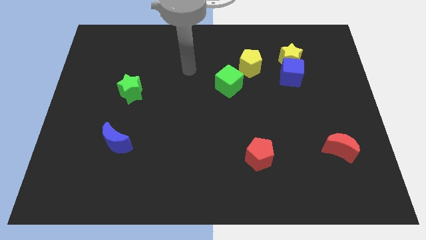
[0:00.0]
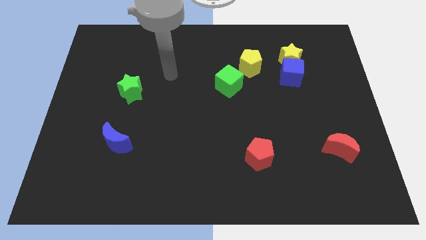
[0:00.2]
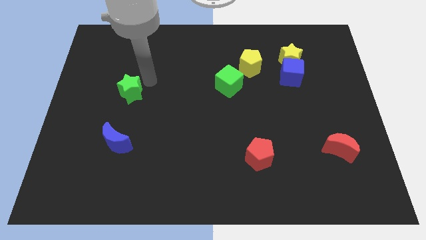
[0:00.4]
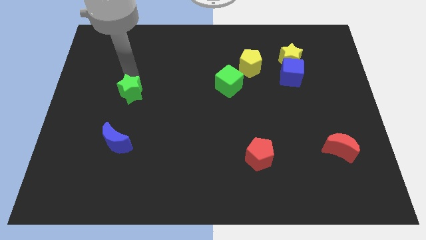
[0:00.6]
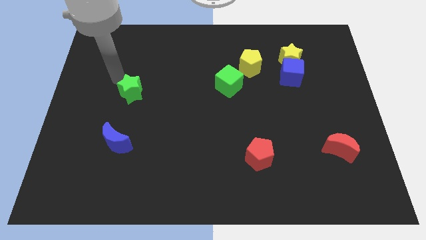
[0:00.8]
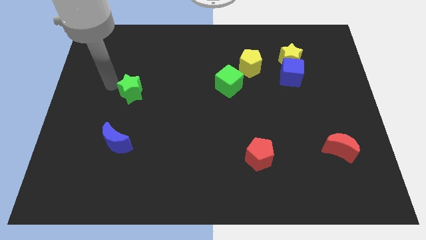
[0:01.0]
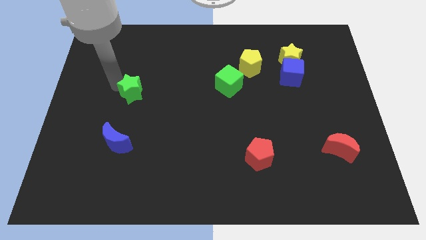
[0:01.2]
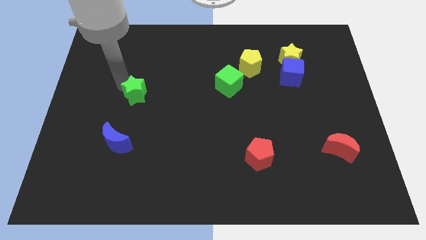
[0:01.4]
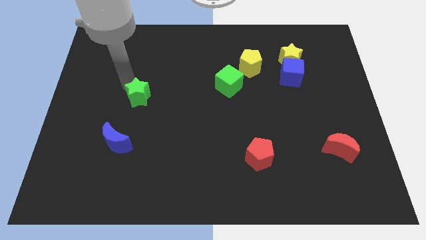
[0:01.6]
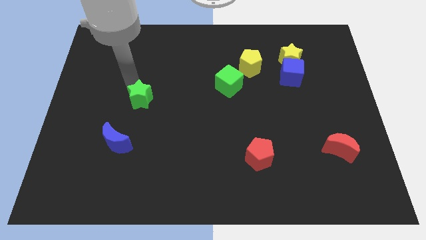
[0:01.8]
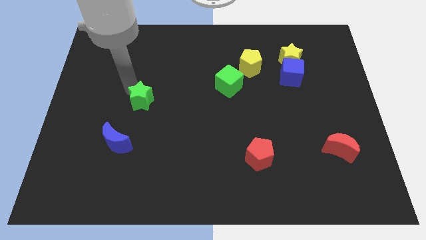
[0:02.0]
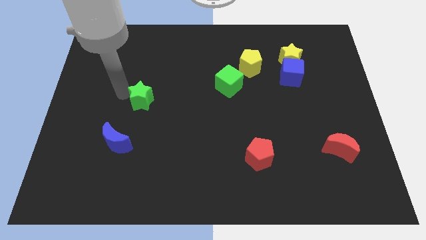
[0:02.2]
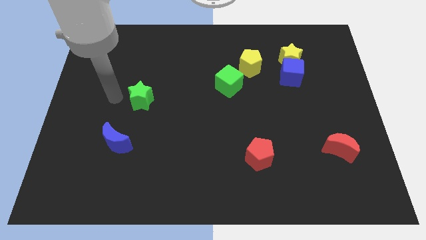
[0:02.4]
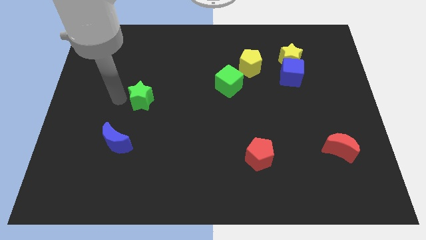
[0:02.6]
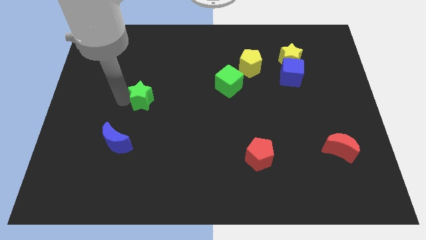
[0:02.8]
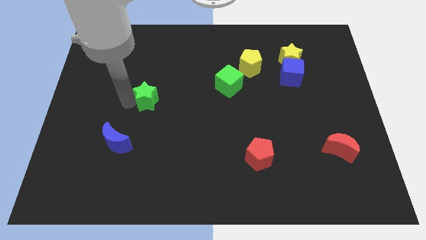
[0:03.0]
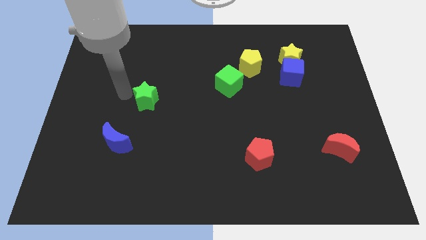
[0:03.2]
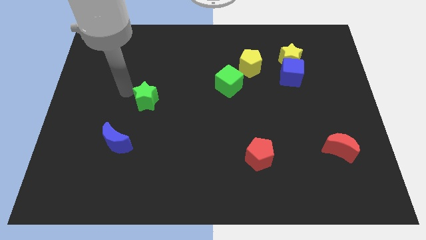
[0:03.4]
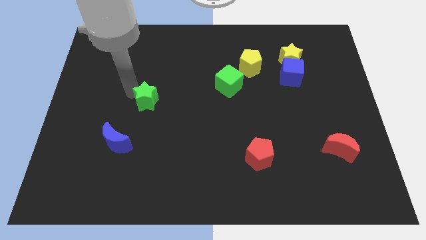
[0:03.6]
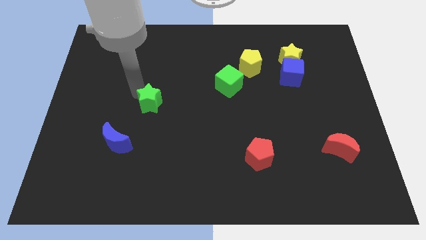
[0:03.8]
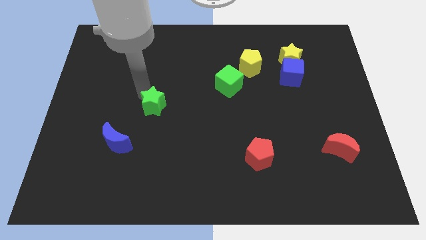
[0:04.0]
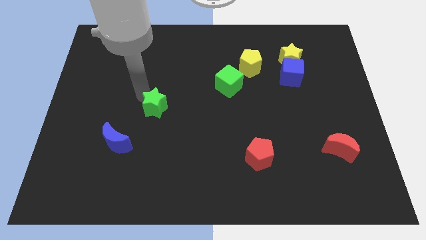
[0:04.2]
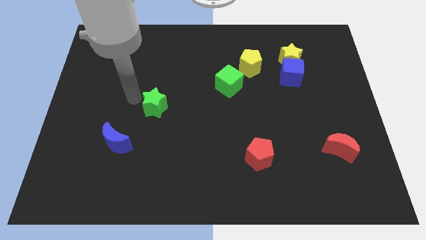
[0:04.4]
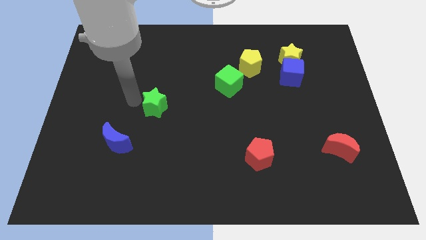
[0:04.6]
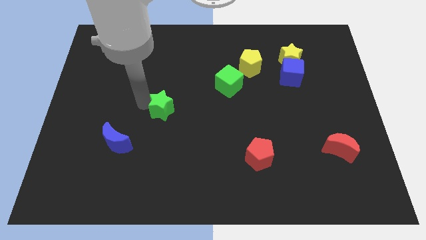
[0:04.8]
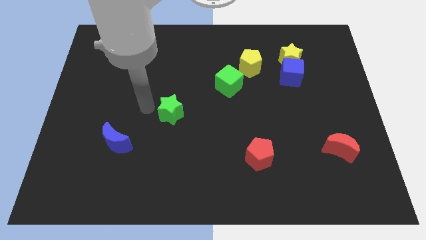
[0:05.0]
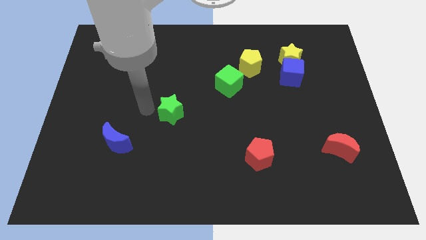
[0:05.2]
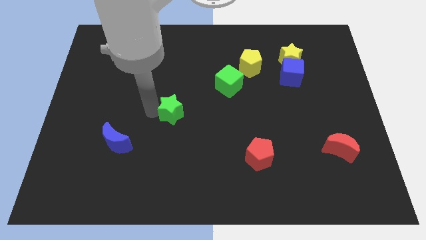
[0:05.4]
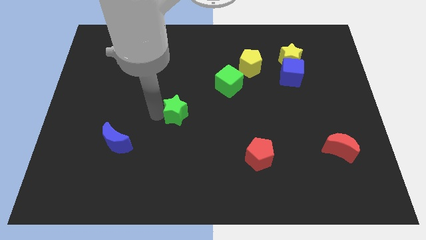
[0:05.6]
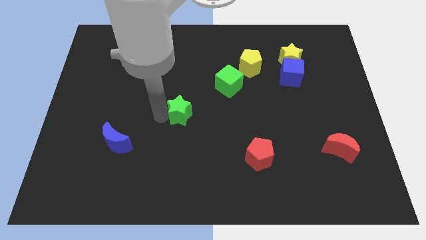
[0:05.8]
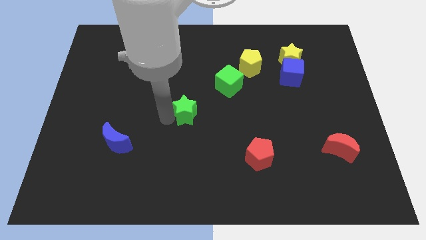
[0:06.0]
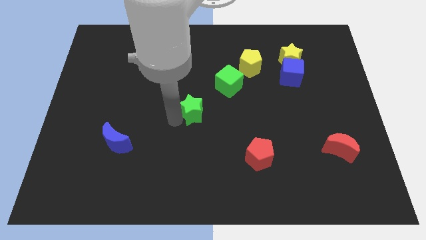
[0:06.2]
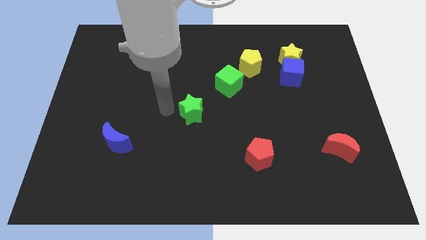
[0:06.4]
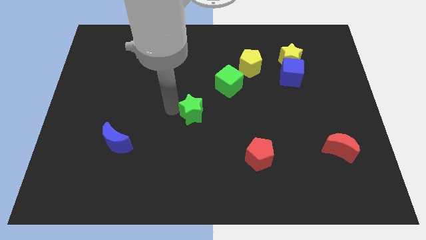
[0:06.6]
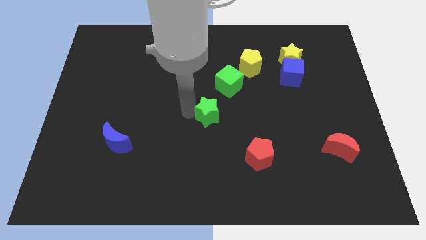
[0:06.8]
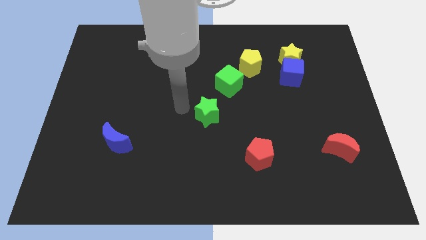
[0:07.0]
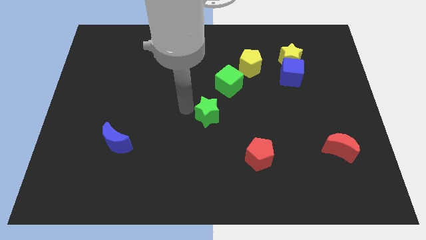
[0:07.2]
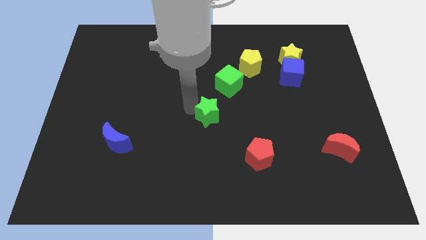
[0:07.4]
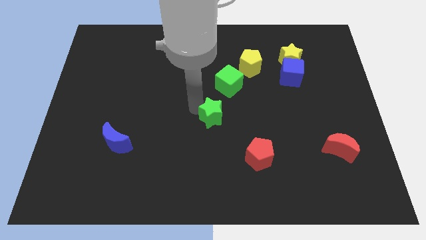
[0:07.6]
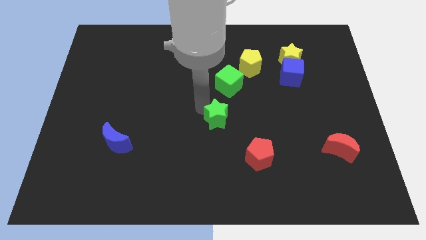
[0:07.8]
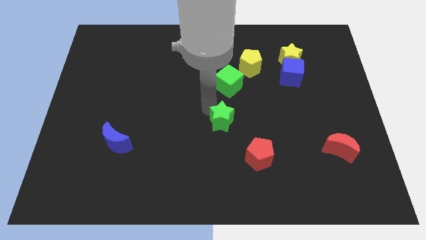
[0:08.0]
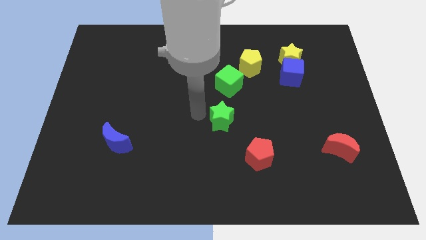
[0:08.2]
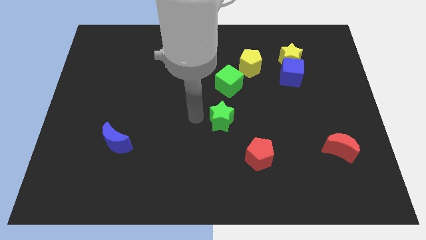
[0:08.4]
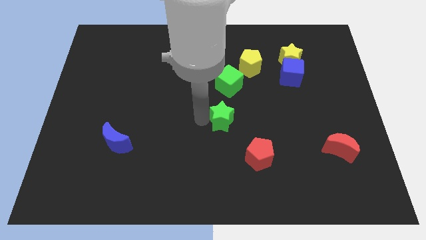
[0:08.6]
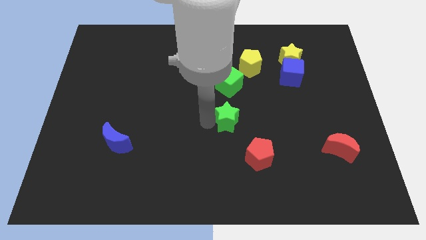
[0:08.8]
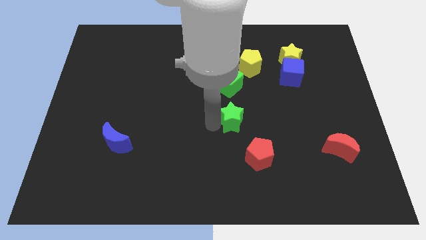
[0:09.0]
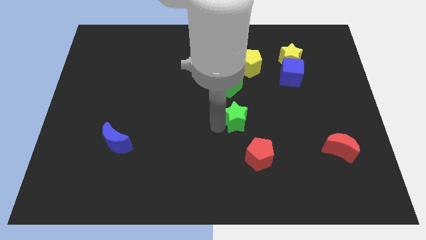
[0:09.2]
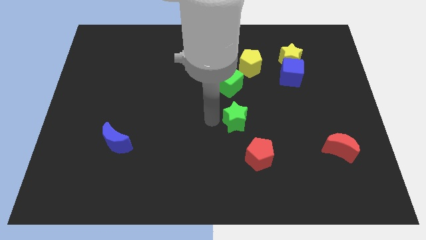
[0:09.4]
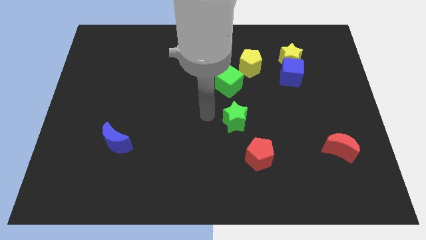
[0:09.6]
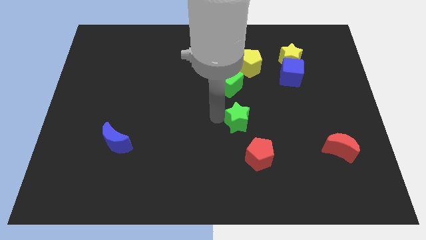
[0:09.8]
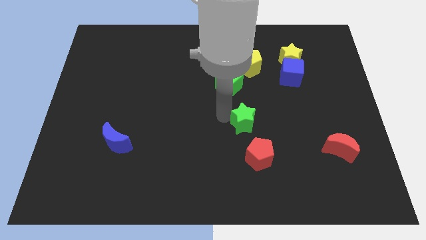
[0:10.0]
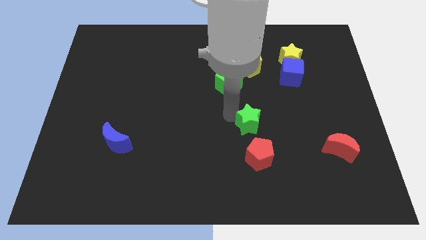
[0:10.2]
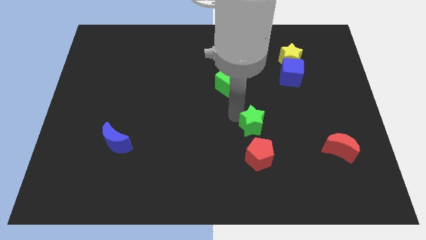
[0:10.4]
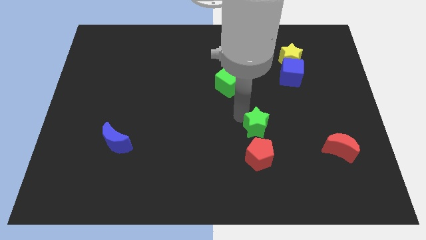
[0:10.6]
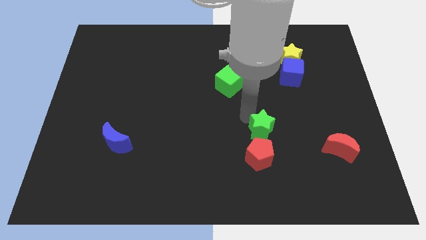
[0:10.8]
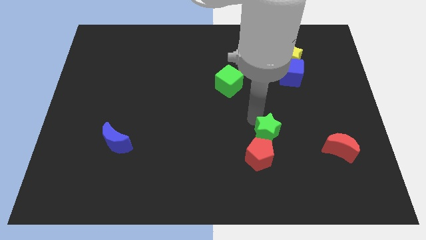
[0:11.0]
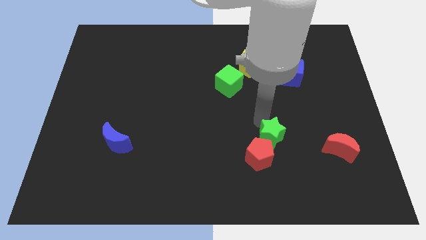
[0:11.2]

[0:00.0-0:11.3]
push the green star to the left side of the red moon

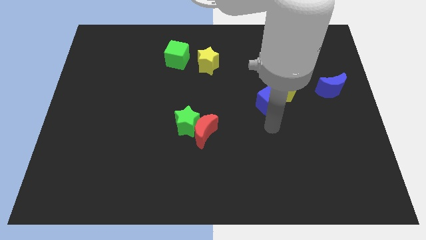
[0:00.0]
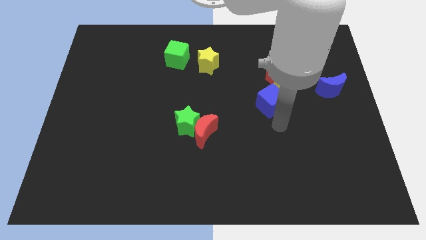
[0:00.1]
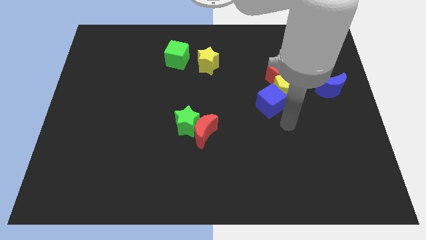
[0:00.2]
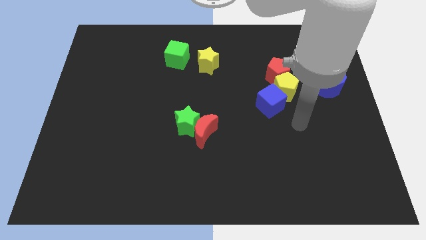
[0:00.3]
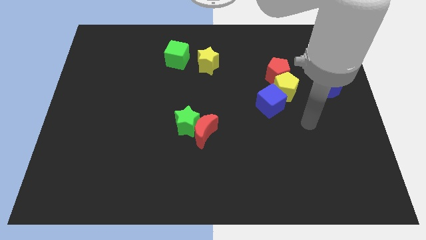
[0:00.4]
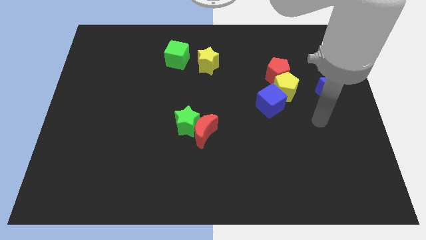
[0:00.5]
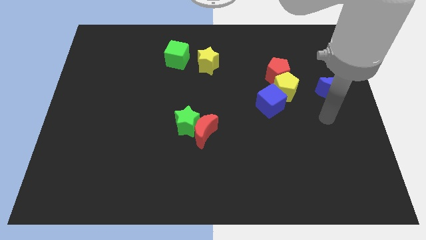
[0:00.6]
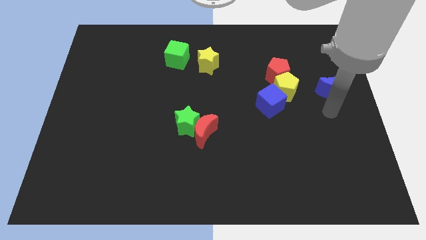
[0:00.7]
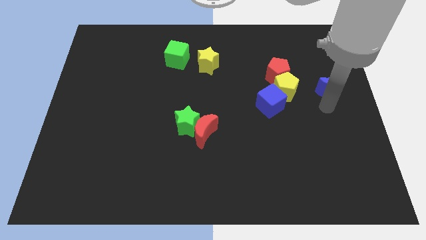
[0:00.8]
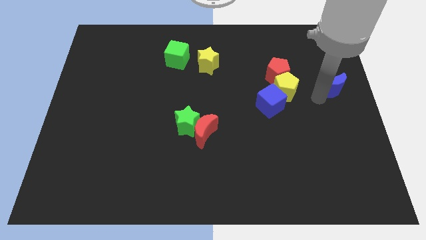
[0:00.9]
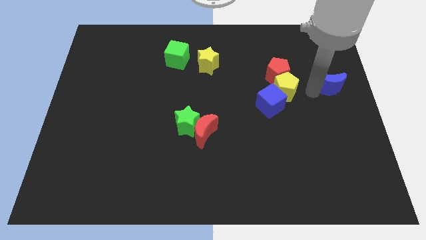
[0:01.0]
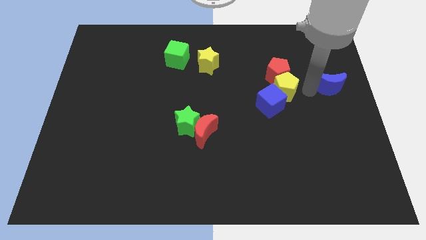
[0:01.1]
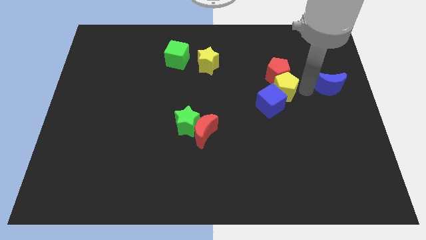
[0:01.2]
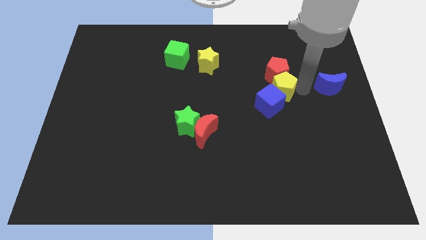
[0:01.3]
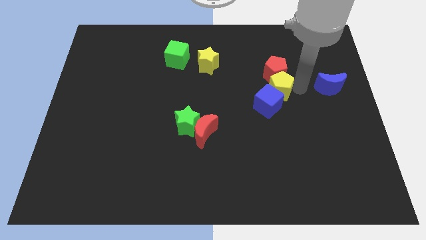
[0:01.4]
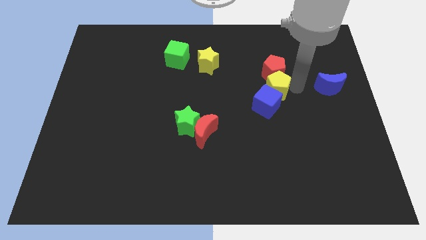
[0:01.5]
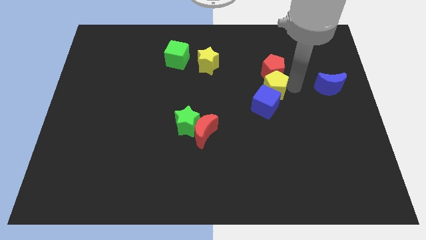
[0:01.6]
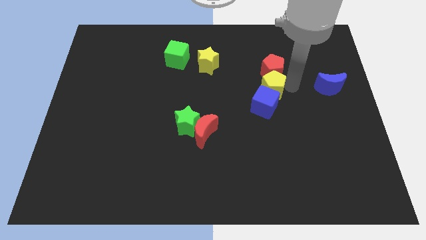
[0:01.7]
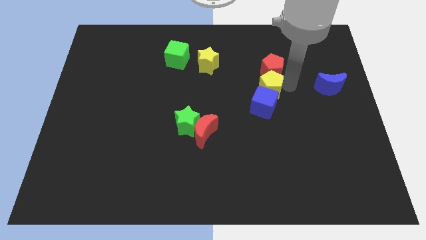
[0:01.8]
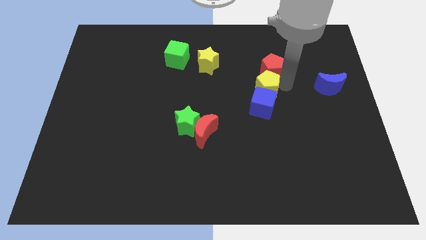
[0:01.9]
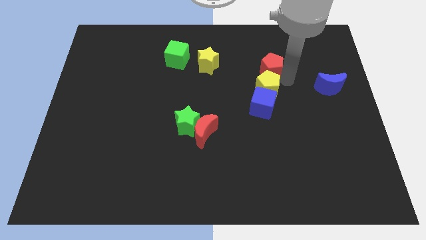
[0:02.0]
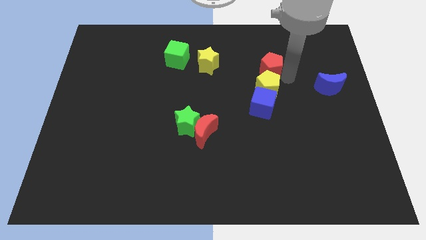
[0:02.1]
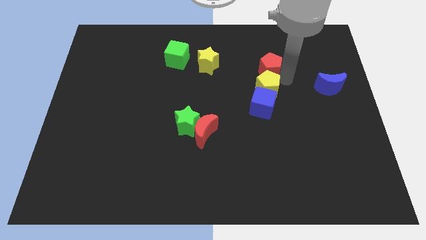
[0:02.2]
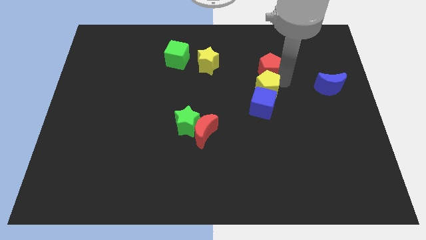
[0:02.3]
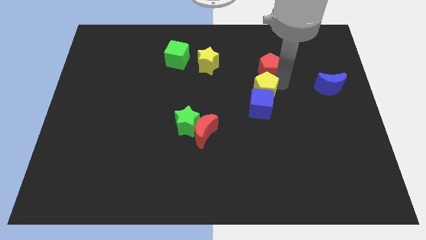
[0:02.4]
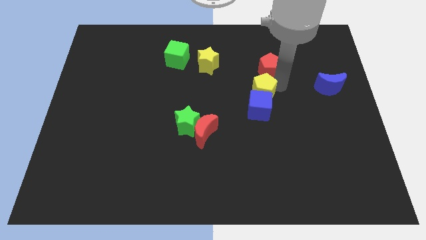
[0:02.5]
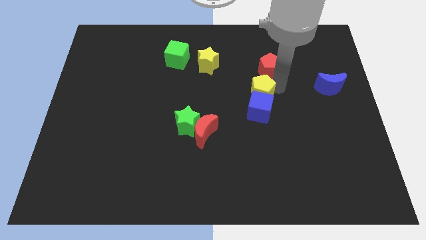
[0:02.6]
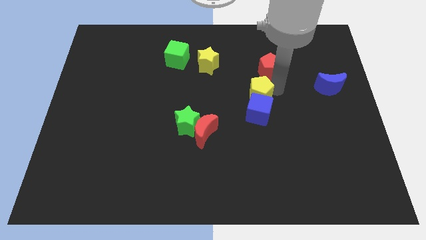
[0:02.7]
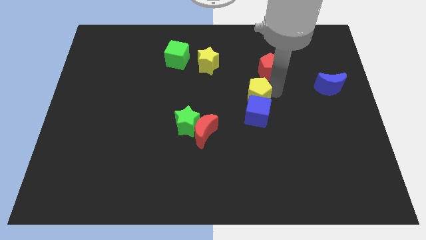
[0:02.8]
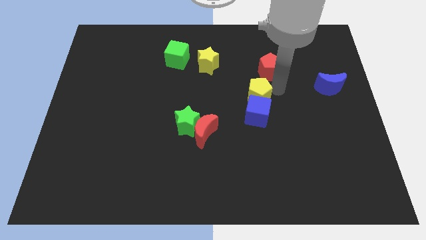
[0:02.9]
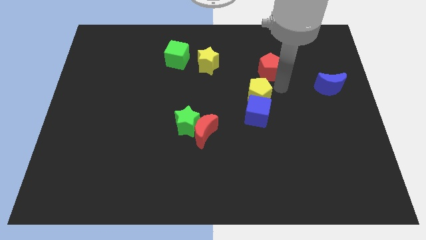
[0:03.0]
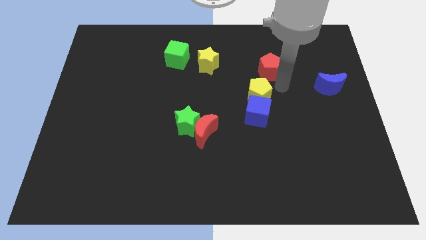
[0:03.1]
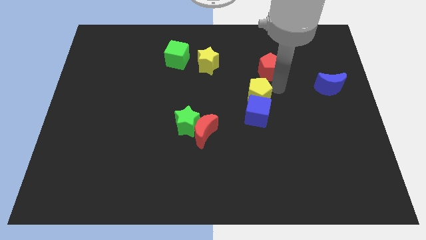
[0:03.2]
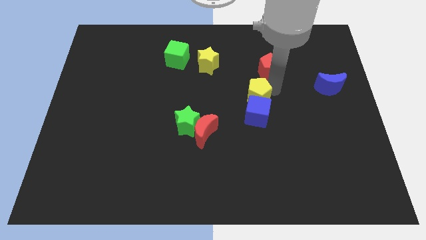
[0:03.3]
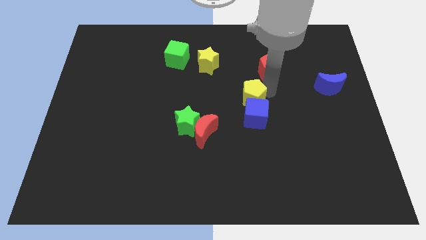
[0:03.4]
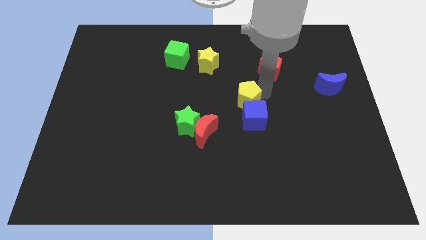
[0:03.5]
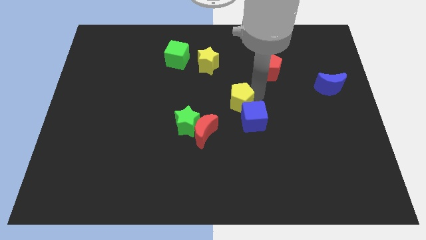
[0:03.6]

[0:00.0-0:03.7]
push the yellow pentagon to the top right of the red moon
